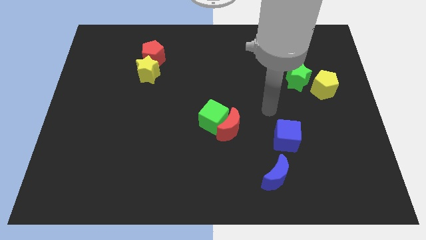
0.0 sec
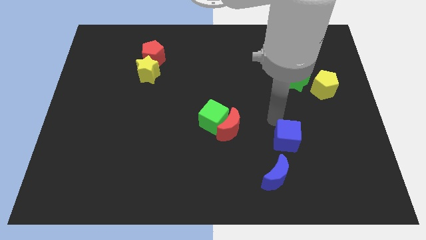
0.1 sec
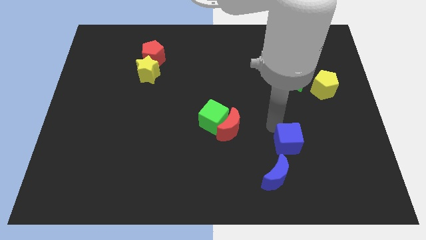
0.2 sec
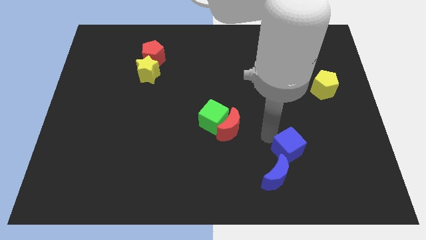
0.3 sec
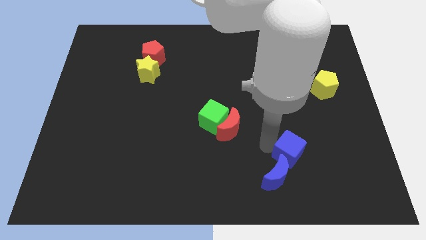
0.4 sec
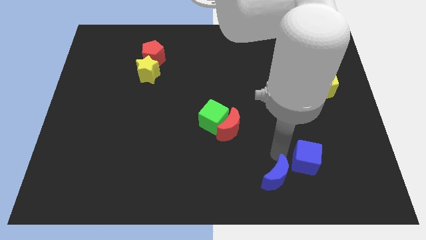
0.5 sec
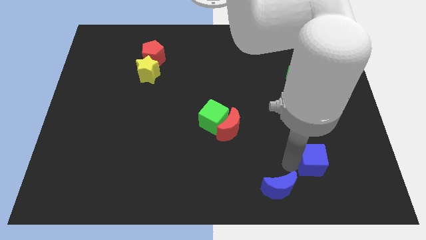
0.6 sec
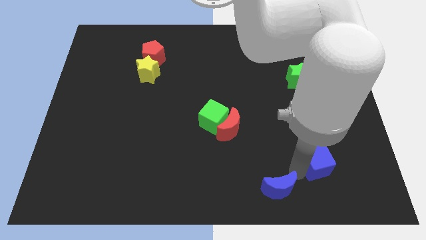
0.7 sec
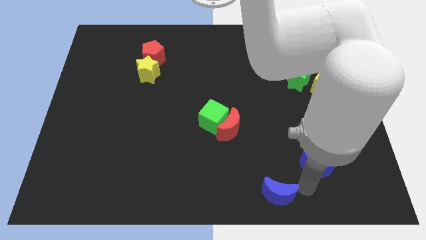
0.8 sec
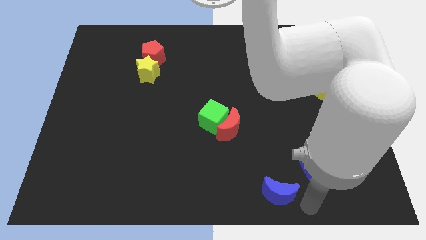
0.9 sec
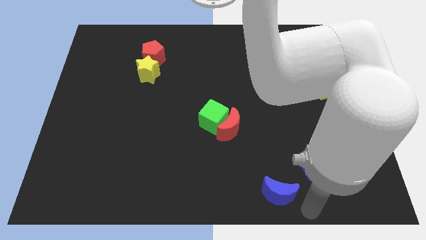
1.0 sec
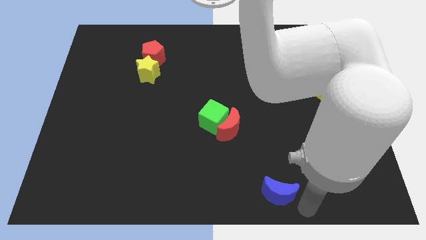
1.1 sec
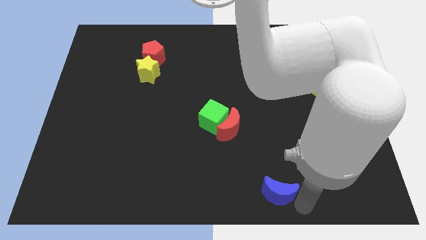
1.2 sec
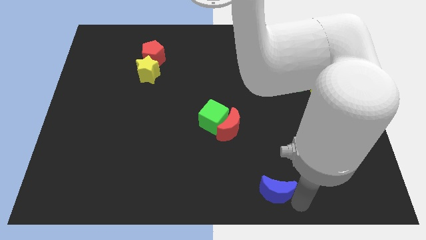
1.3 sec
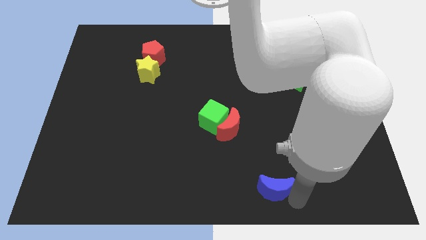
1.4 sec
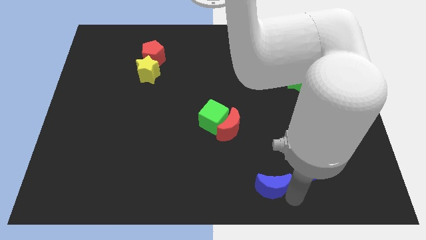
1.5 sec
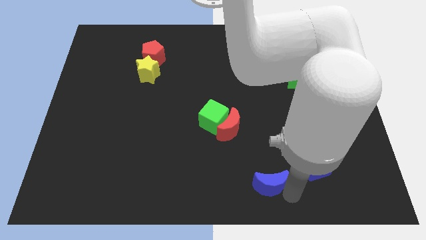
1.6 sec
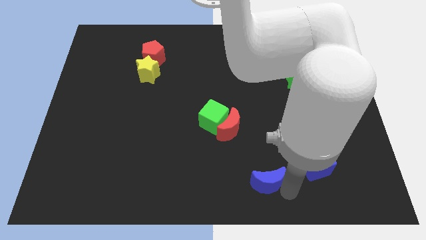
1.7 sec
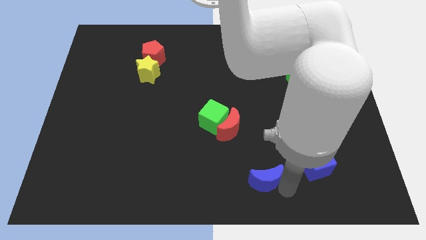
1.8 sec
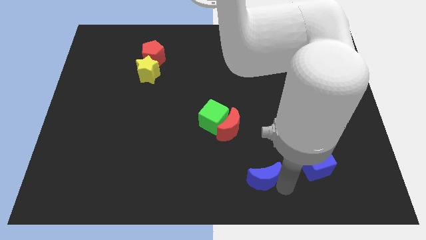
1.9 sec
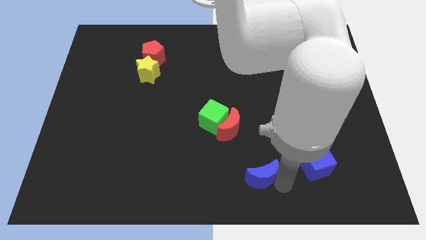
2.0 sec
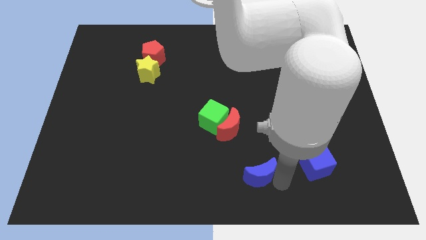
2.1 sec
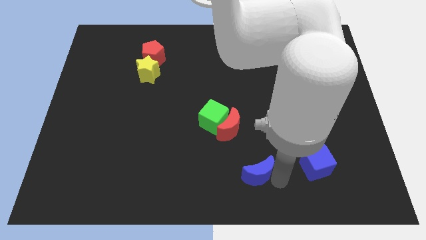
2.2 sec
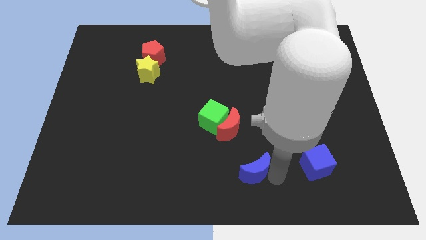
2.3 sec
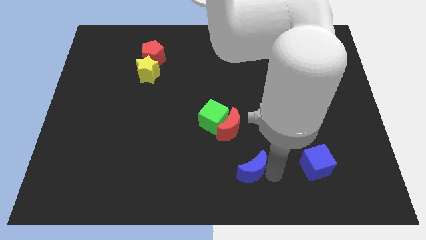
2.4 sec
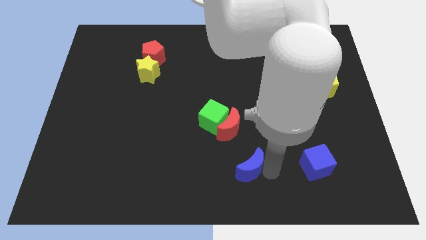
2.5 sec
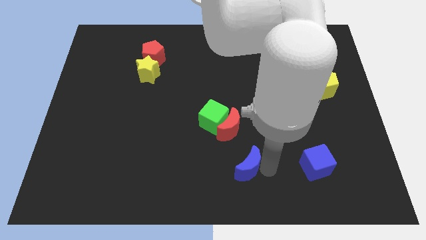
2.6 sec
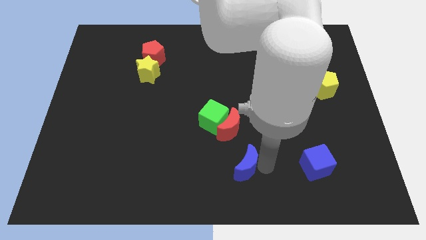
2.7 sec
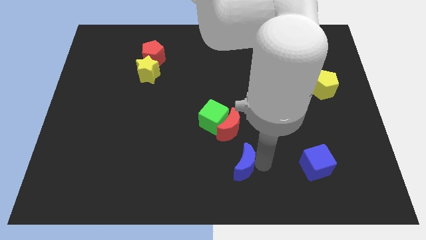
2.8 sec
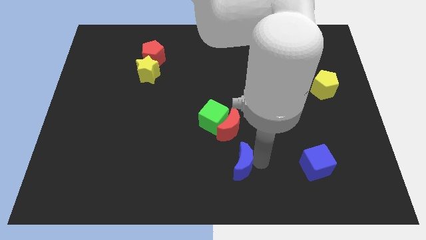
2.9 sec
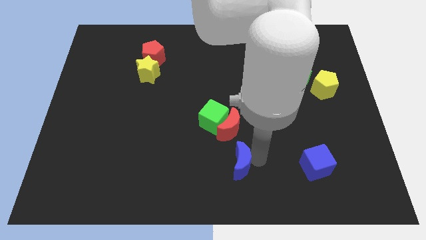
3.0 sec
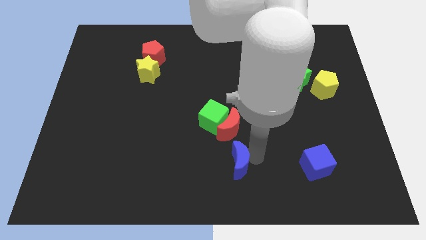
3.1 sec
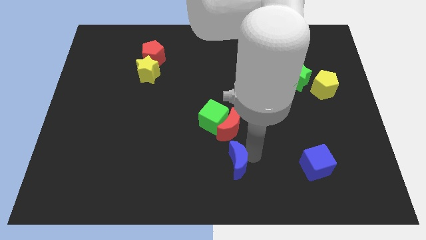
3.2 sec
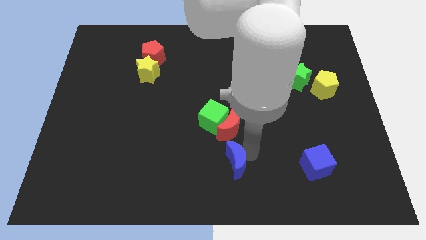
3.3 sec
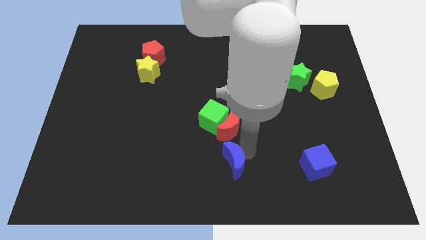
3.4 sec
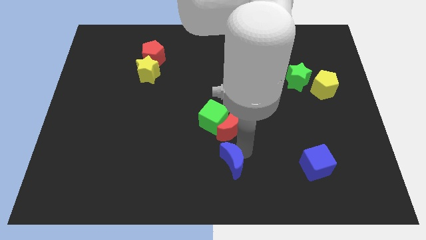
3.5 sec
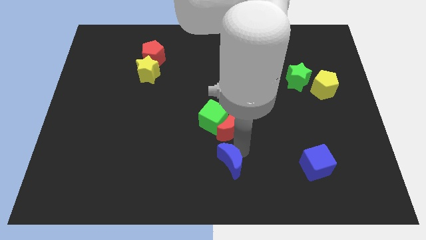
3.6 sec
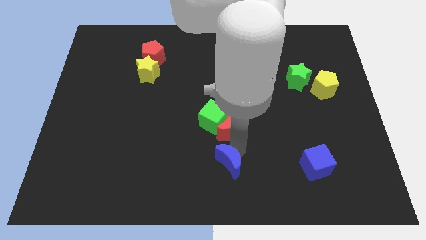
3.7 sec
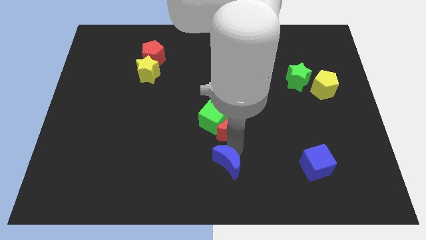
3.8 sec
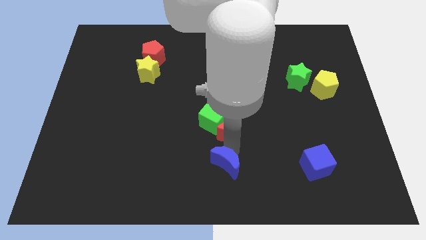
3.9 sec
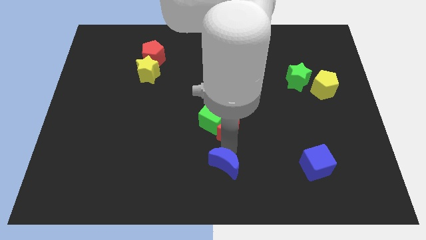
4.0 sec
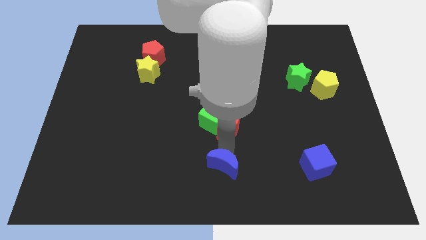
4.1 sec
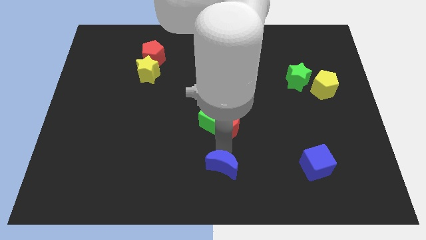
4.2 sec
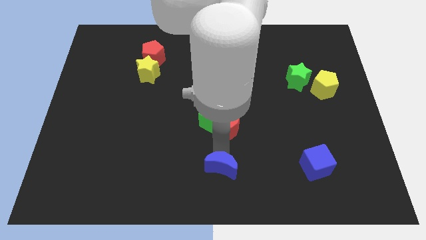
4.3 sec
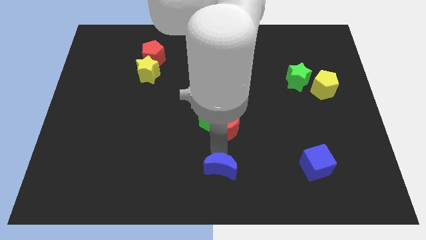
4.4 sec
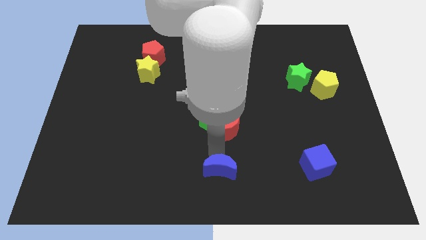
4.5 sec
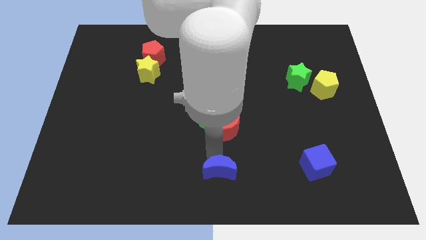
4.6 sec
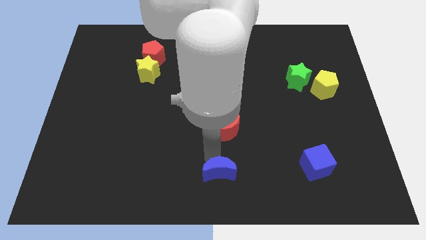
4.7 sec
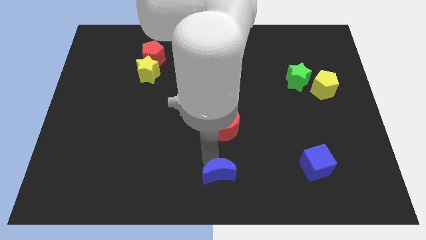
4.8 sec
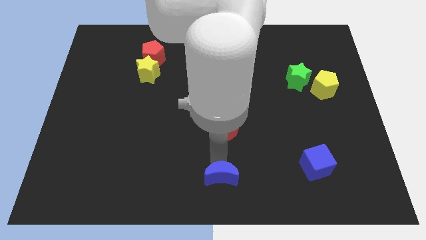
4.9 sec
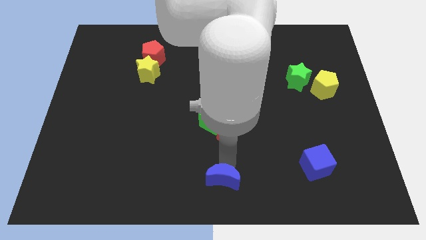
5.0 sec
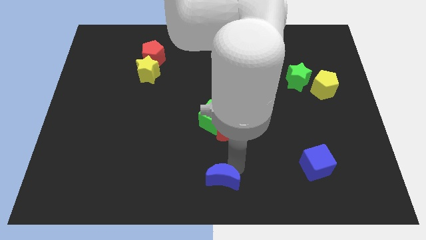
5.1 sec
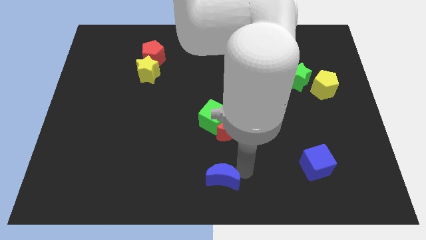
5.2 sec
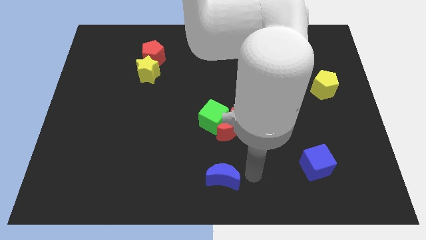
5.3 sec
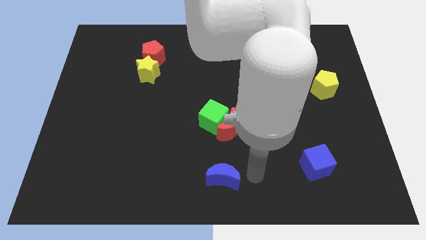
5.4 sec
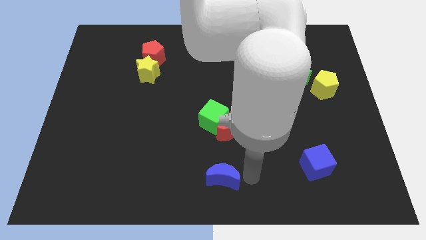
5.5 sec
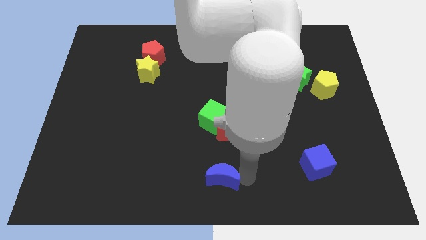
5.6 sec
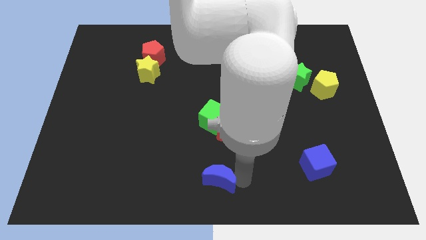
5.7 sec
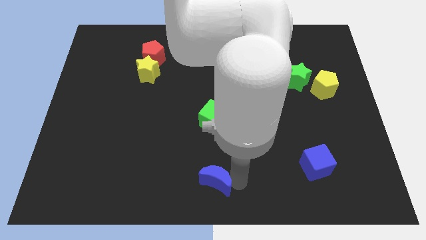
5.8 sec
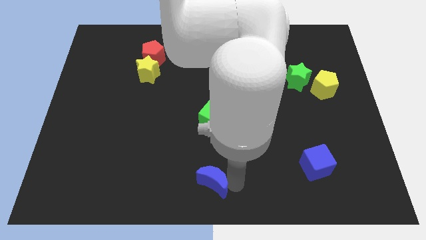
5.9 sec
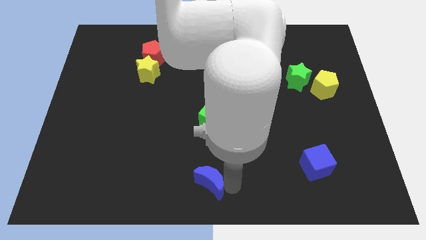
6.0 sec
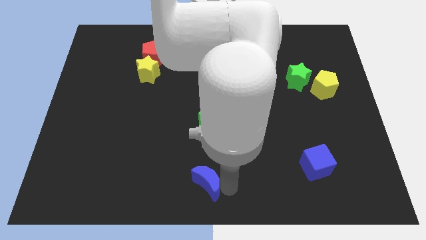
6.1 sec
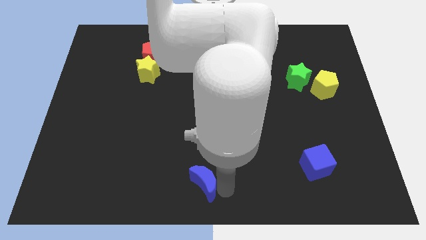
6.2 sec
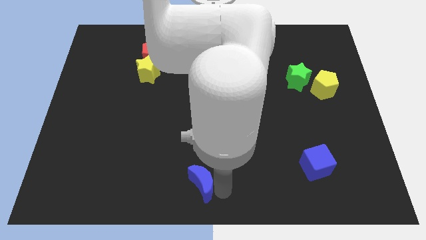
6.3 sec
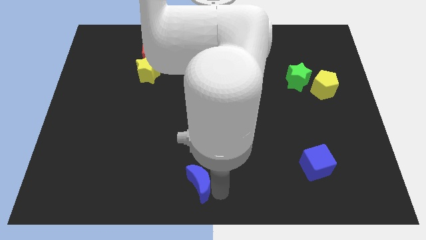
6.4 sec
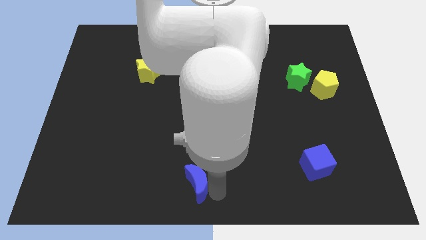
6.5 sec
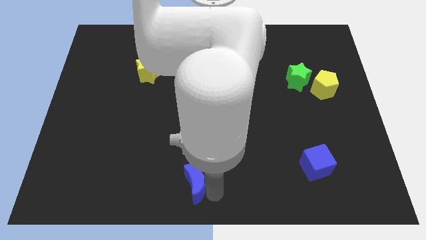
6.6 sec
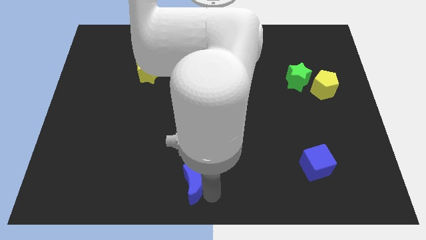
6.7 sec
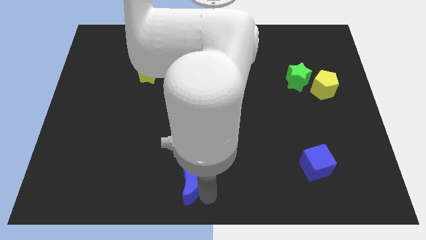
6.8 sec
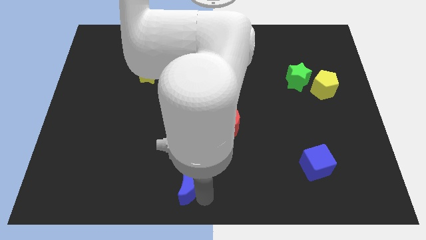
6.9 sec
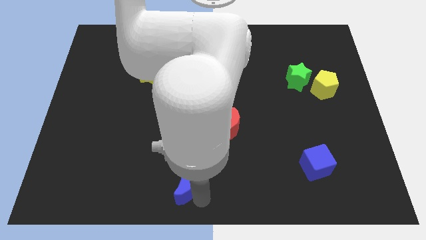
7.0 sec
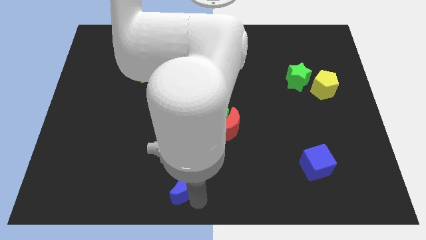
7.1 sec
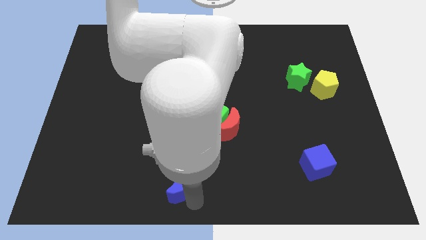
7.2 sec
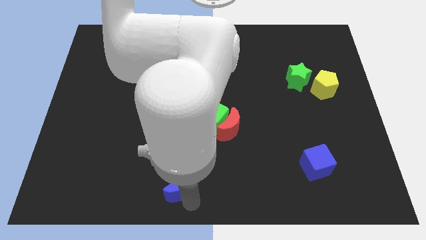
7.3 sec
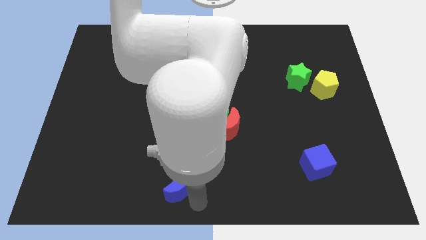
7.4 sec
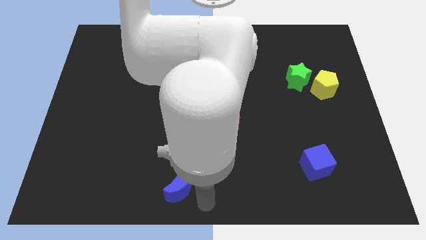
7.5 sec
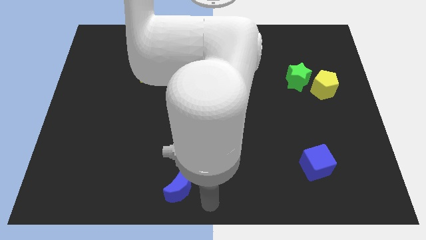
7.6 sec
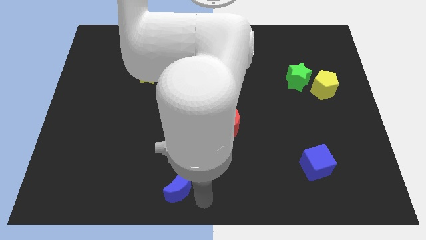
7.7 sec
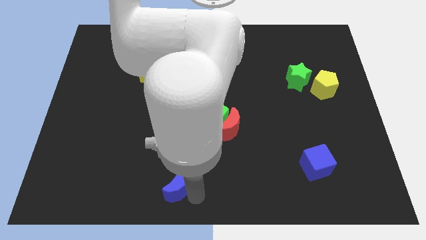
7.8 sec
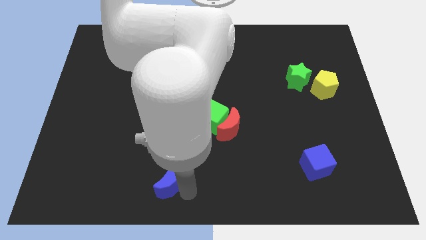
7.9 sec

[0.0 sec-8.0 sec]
move the blue moon left

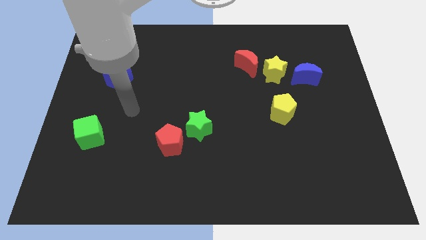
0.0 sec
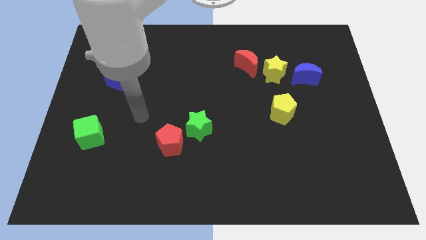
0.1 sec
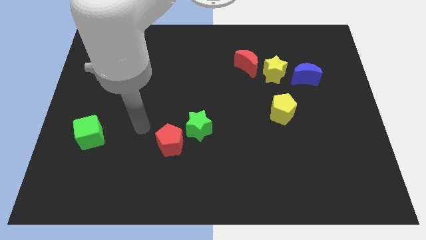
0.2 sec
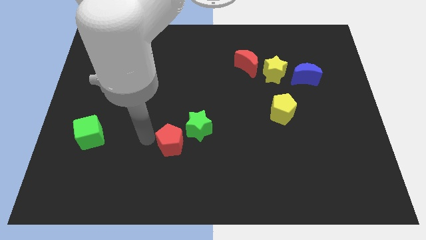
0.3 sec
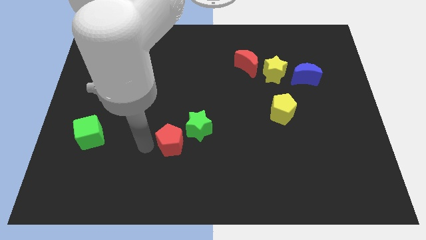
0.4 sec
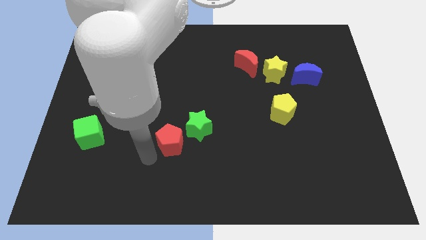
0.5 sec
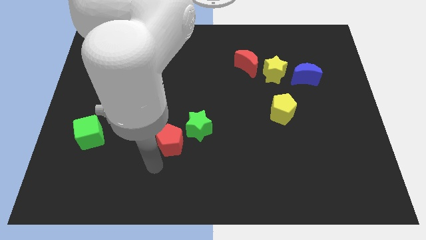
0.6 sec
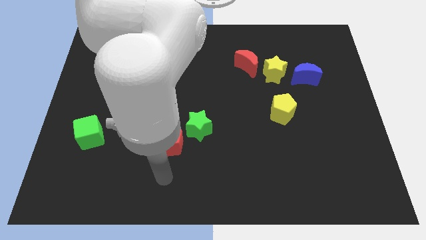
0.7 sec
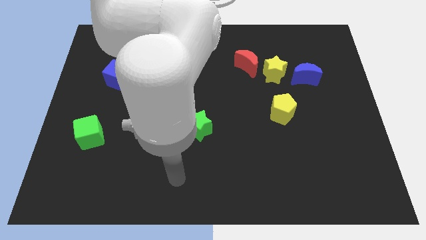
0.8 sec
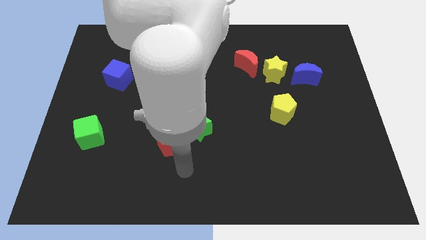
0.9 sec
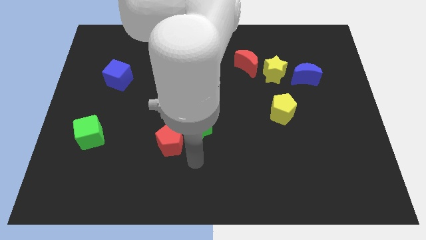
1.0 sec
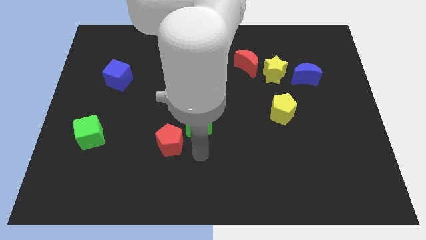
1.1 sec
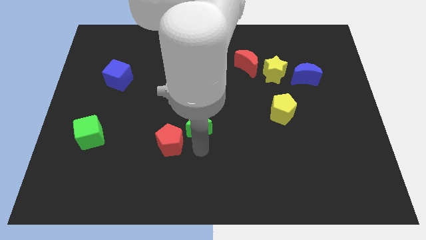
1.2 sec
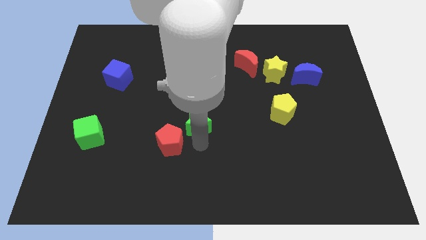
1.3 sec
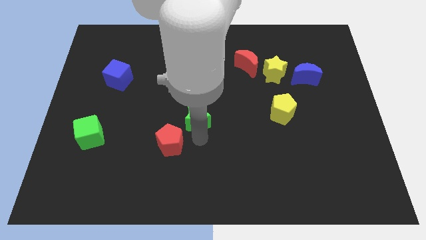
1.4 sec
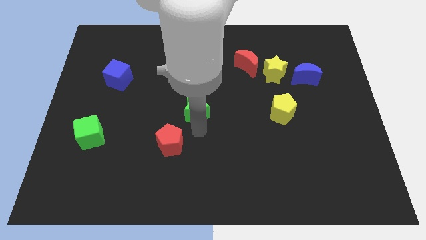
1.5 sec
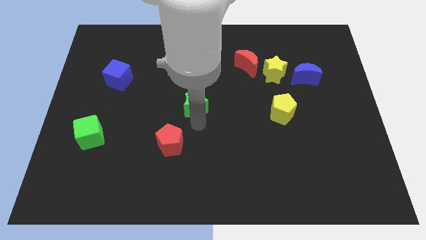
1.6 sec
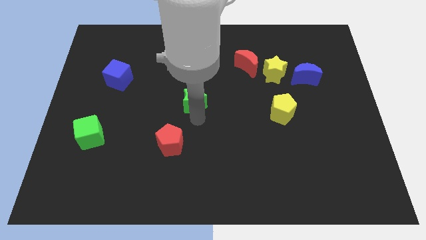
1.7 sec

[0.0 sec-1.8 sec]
move the green star up a bit
